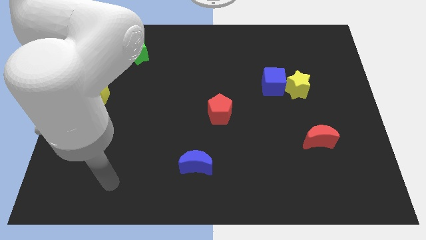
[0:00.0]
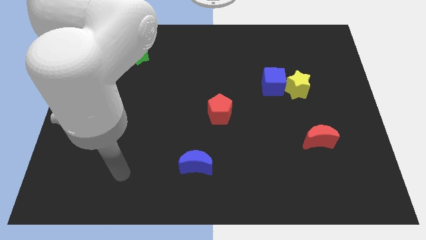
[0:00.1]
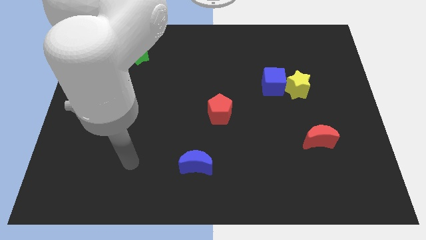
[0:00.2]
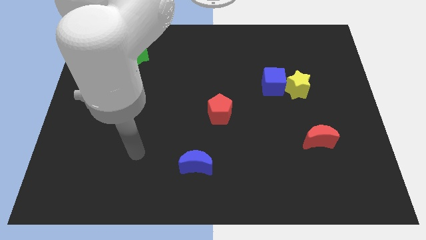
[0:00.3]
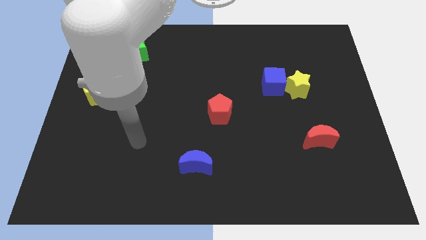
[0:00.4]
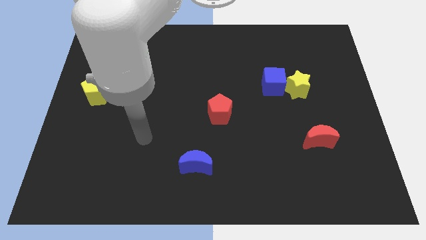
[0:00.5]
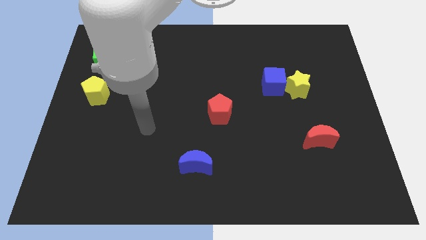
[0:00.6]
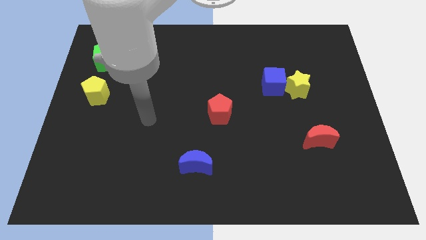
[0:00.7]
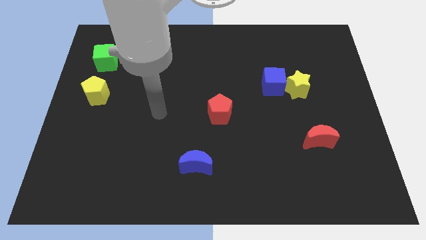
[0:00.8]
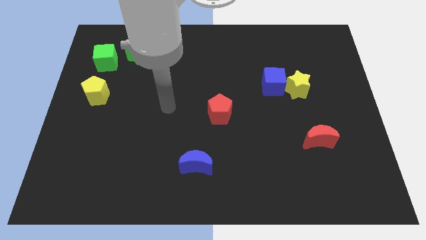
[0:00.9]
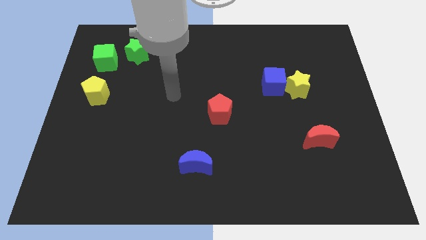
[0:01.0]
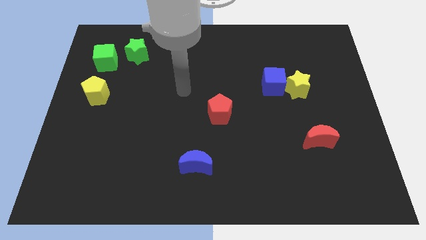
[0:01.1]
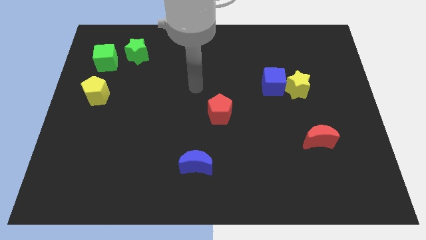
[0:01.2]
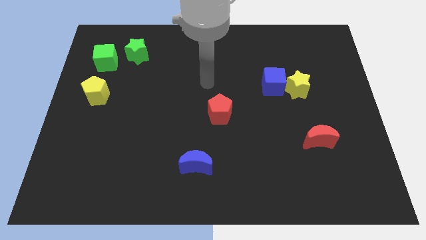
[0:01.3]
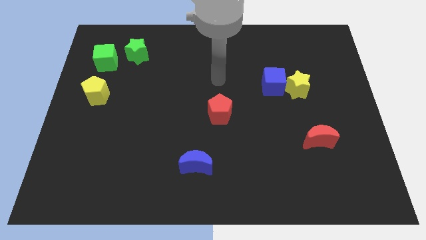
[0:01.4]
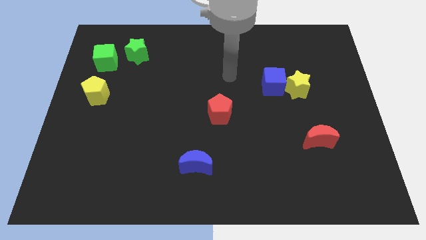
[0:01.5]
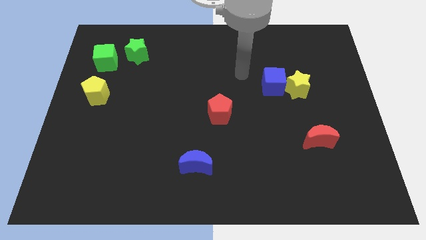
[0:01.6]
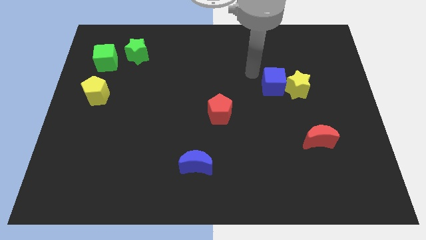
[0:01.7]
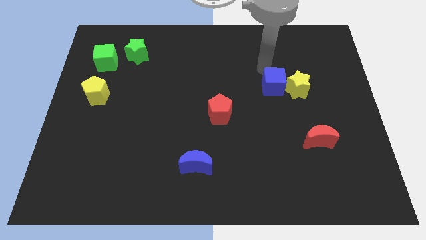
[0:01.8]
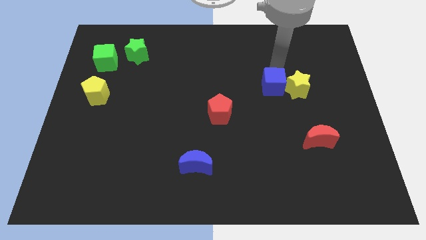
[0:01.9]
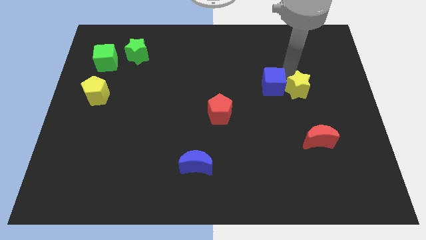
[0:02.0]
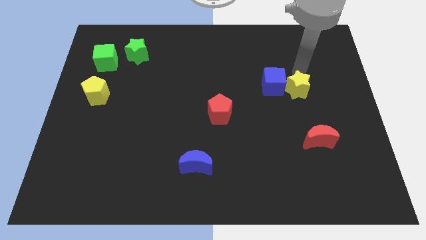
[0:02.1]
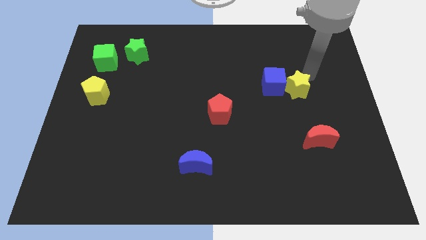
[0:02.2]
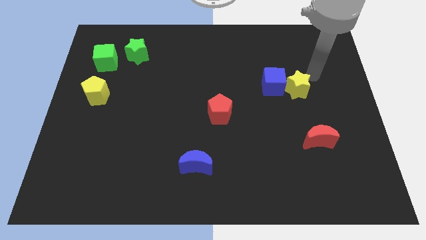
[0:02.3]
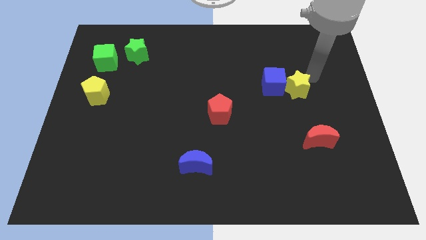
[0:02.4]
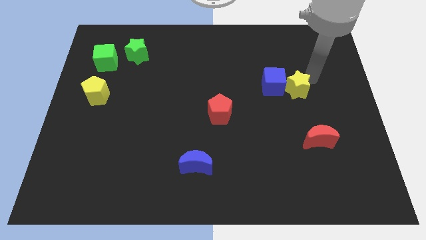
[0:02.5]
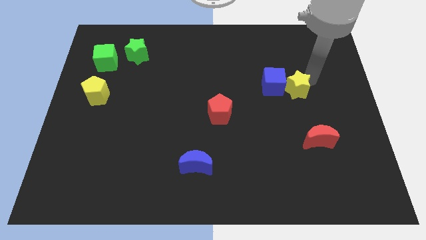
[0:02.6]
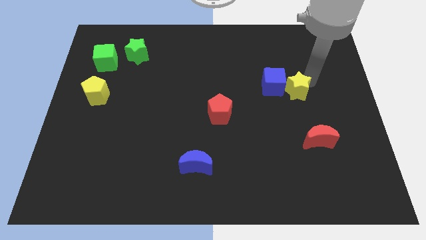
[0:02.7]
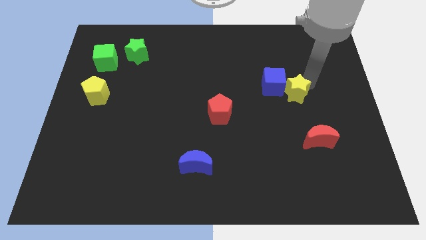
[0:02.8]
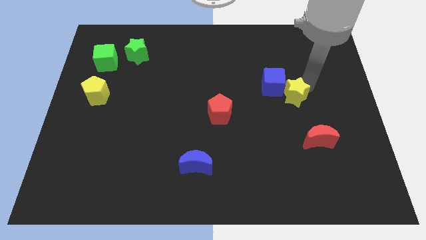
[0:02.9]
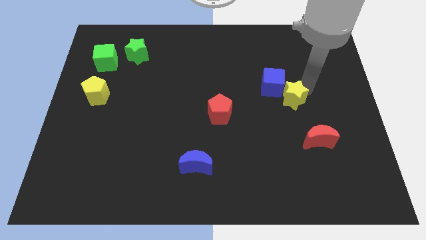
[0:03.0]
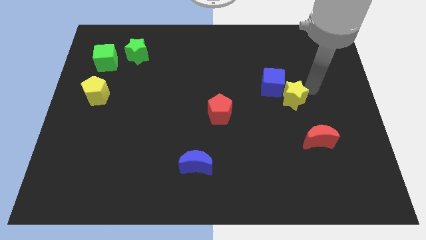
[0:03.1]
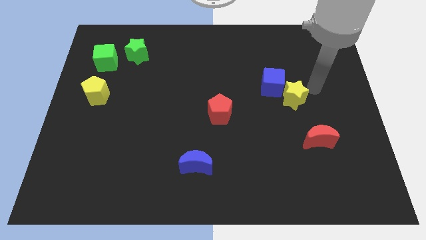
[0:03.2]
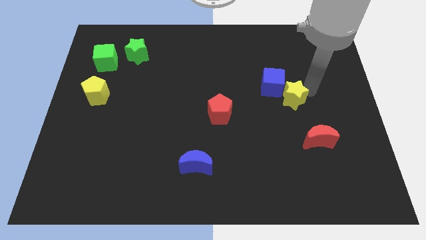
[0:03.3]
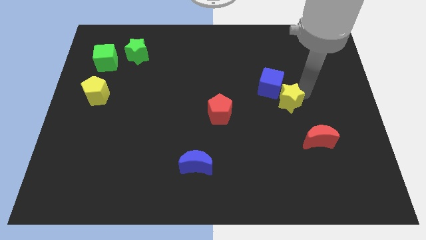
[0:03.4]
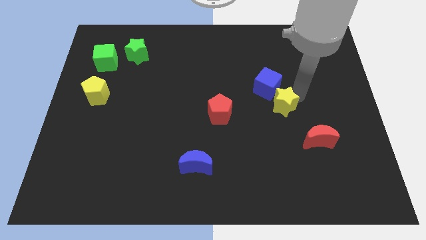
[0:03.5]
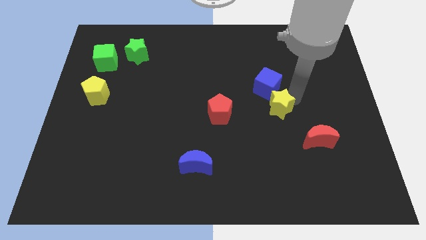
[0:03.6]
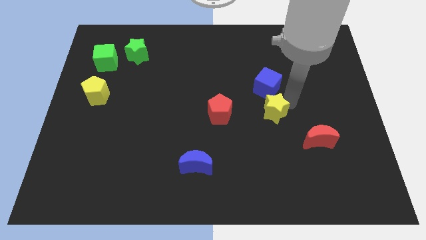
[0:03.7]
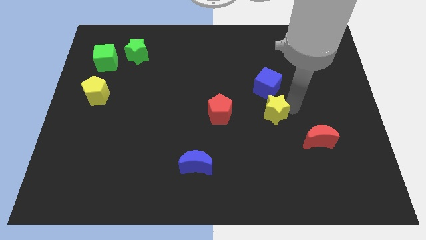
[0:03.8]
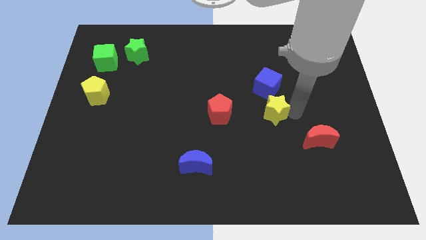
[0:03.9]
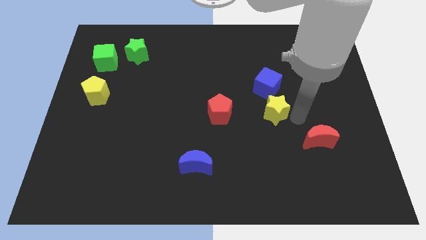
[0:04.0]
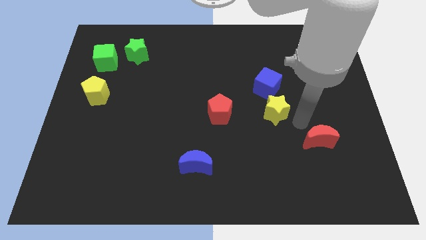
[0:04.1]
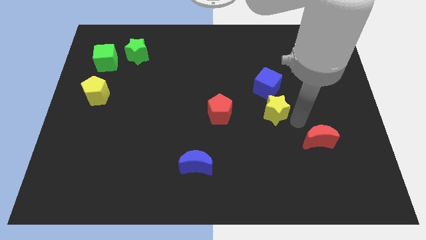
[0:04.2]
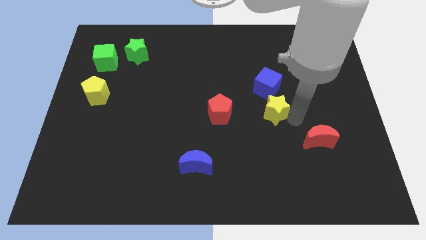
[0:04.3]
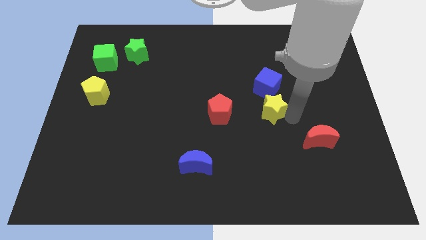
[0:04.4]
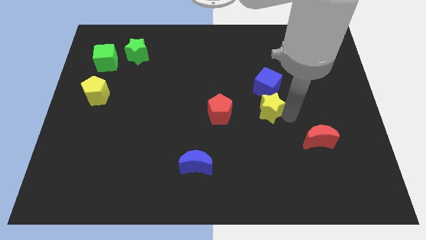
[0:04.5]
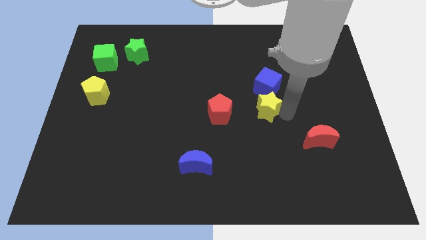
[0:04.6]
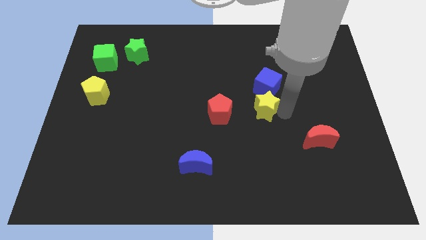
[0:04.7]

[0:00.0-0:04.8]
slightly slide the yellow star left

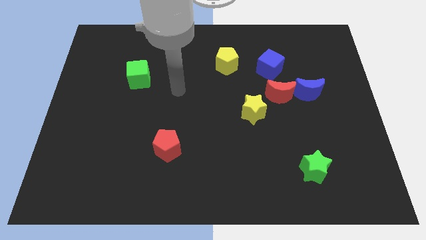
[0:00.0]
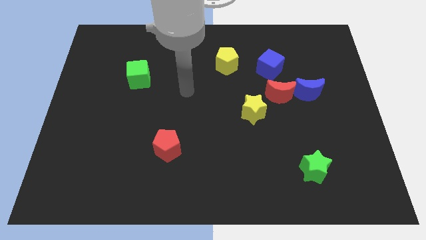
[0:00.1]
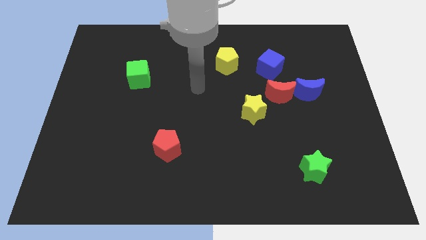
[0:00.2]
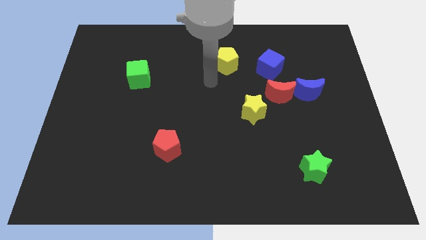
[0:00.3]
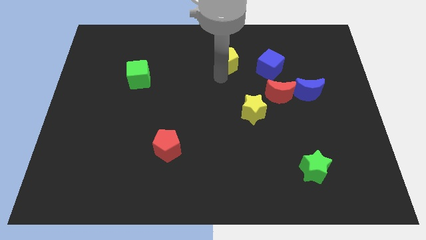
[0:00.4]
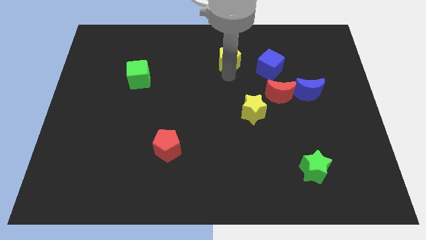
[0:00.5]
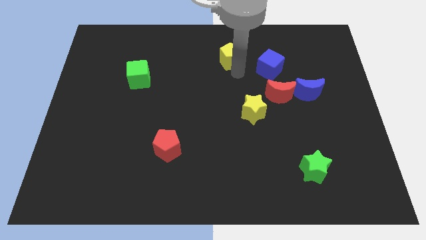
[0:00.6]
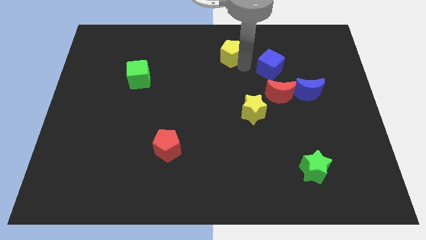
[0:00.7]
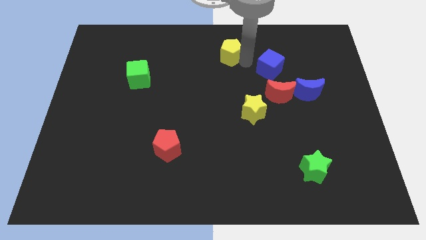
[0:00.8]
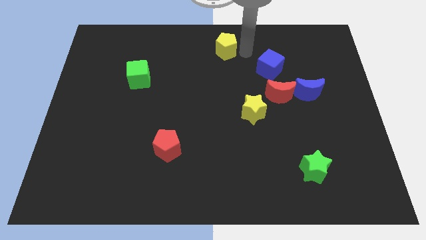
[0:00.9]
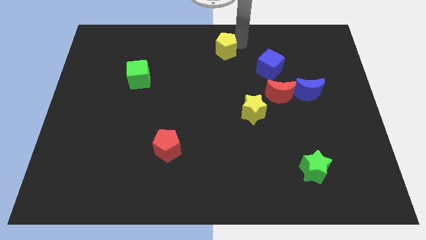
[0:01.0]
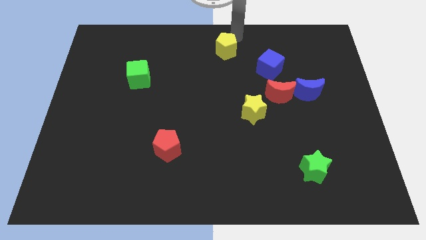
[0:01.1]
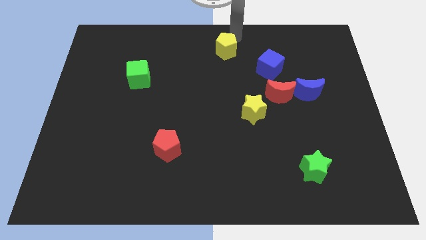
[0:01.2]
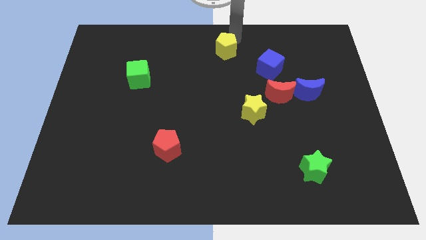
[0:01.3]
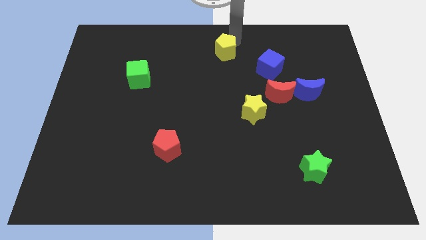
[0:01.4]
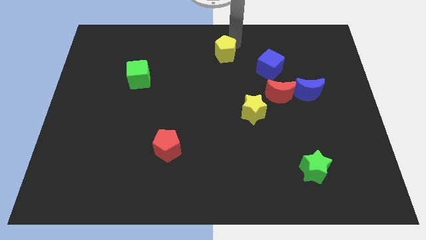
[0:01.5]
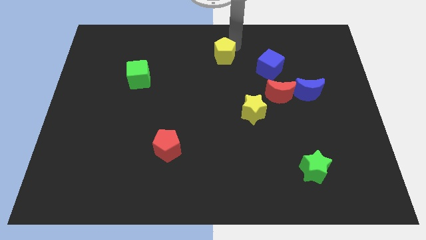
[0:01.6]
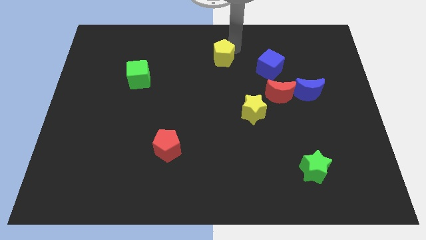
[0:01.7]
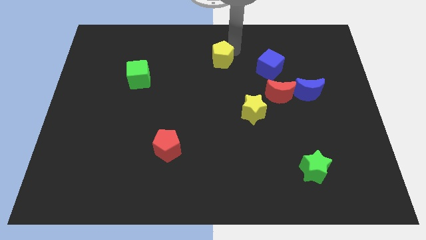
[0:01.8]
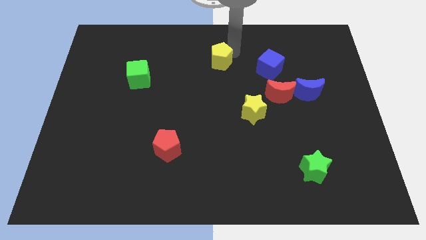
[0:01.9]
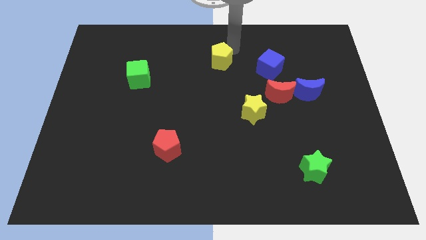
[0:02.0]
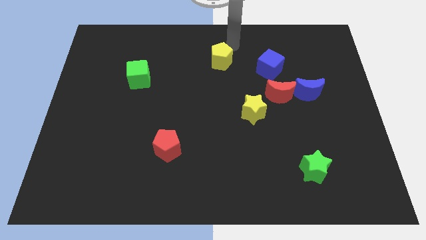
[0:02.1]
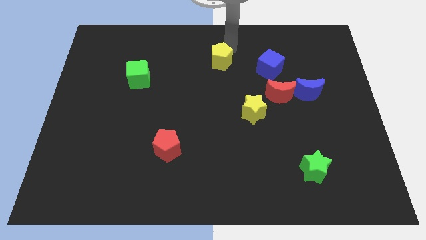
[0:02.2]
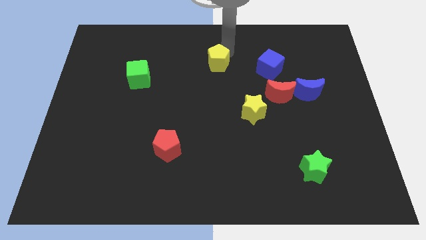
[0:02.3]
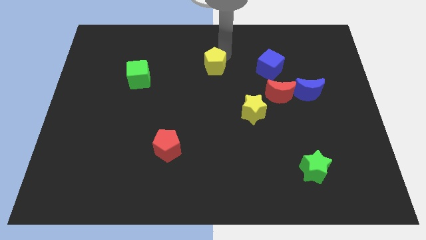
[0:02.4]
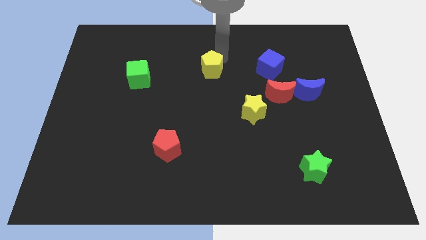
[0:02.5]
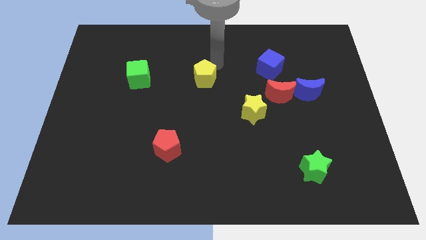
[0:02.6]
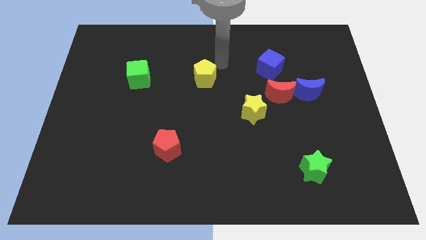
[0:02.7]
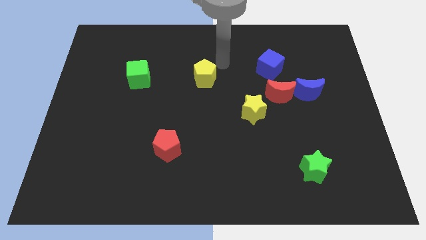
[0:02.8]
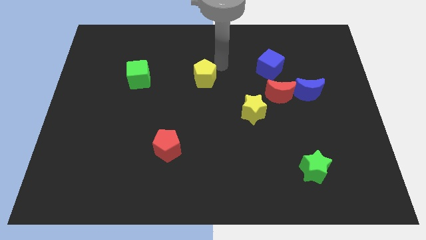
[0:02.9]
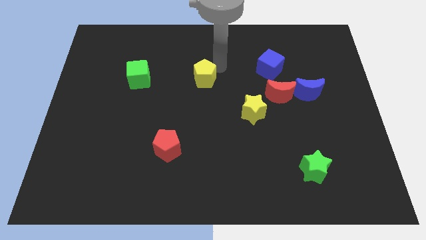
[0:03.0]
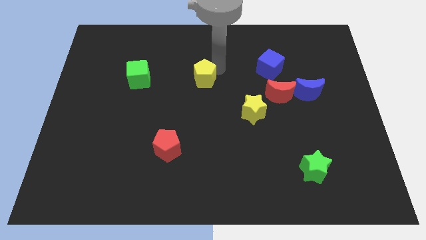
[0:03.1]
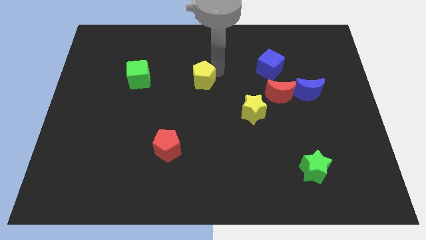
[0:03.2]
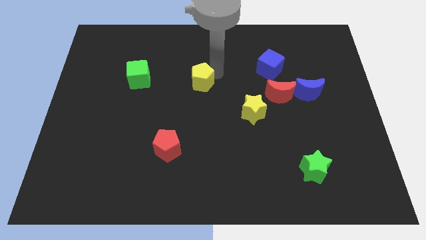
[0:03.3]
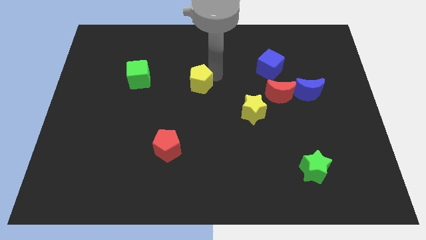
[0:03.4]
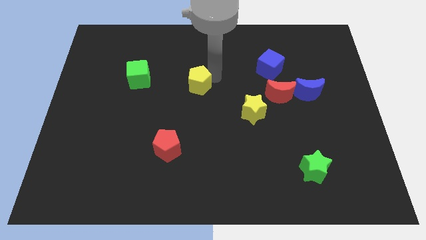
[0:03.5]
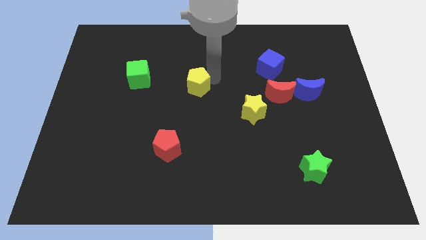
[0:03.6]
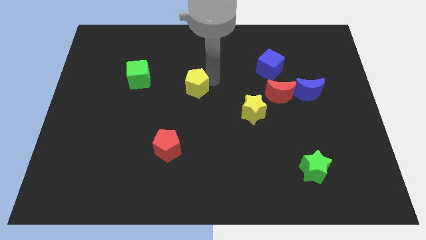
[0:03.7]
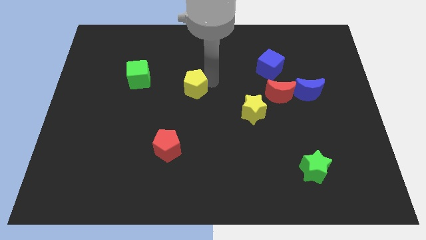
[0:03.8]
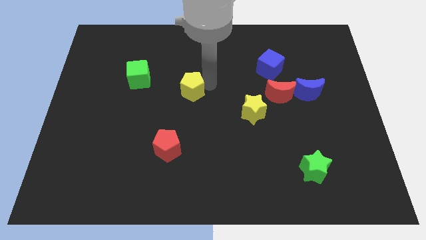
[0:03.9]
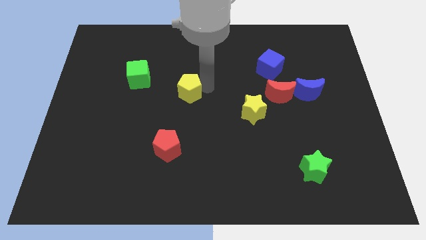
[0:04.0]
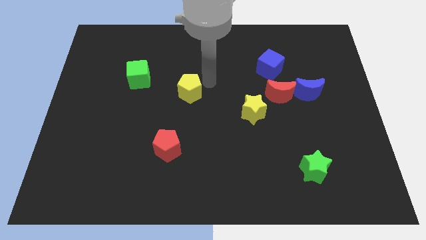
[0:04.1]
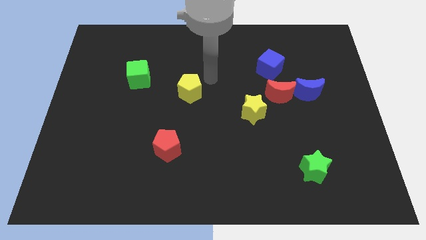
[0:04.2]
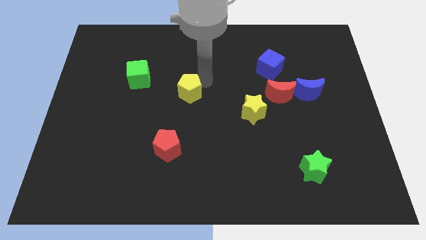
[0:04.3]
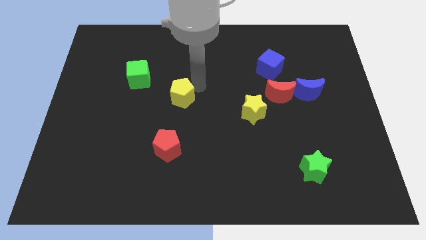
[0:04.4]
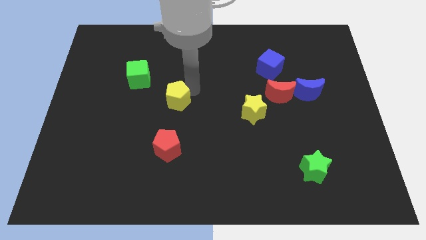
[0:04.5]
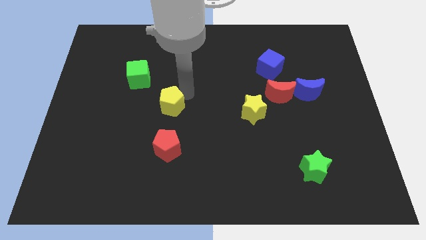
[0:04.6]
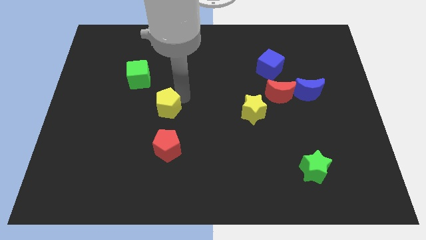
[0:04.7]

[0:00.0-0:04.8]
push the yellow pentagon downwards and left
